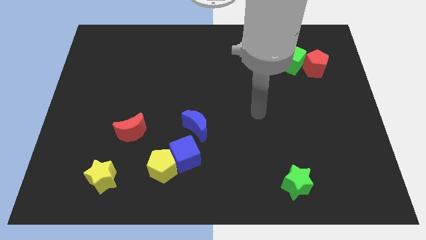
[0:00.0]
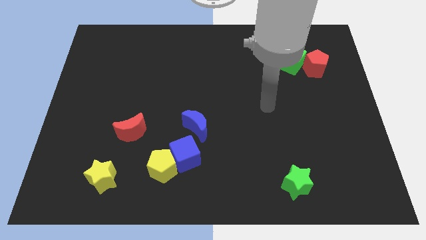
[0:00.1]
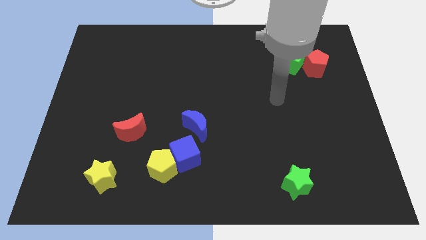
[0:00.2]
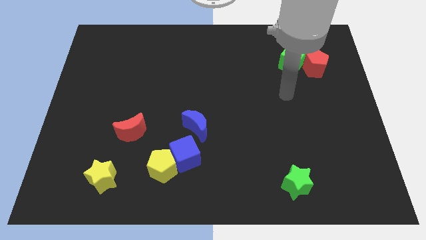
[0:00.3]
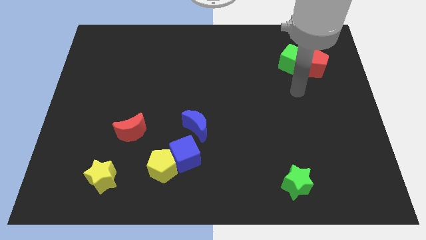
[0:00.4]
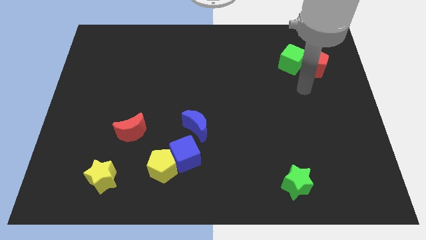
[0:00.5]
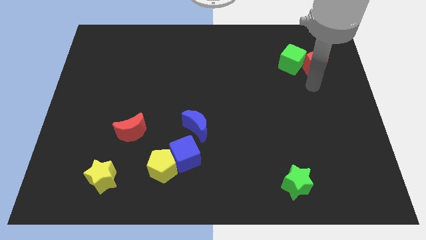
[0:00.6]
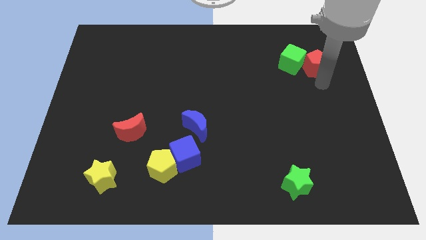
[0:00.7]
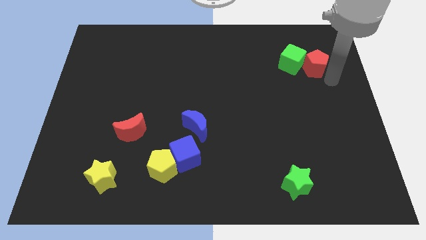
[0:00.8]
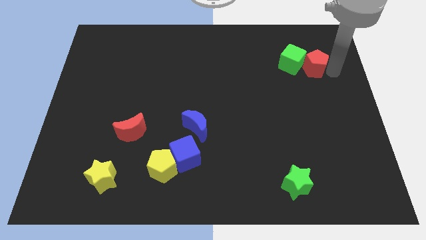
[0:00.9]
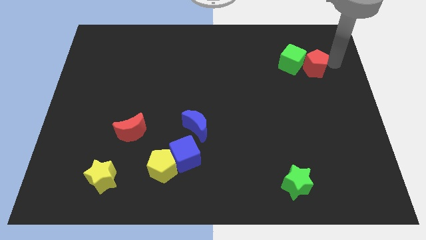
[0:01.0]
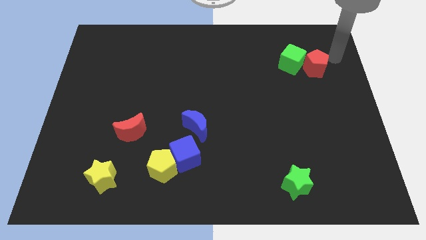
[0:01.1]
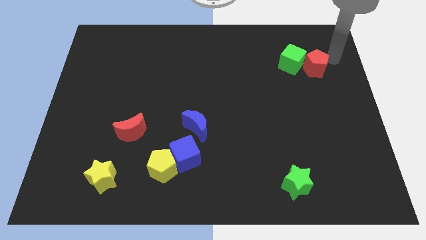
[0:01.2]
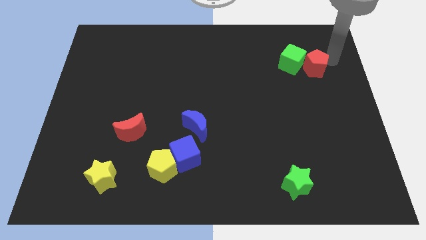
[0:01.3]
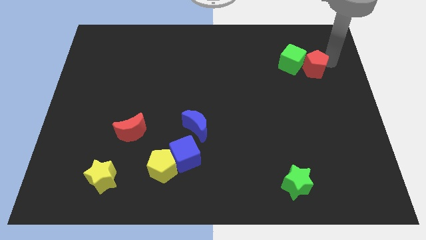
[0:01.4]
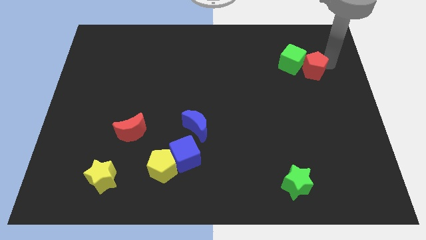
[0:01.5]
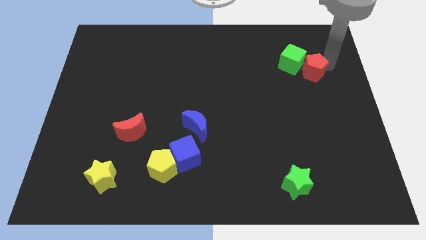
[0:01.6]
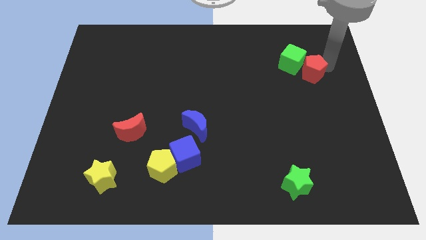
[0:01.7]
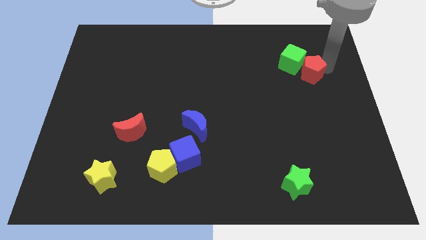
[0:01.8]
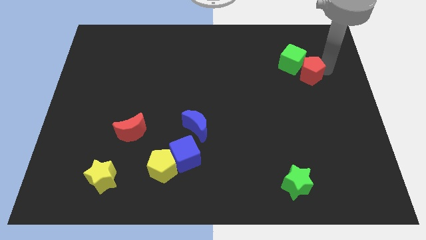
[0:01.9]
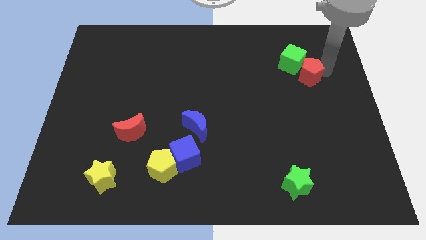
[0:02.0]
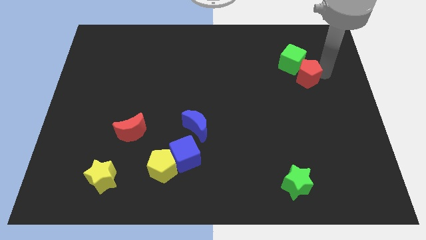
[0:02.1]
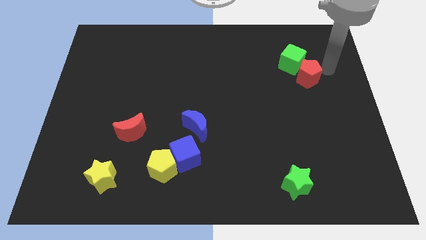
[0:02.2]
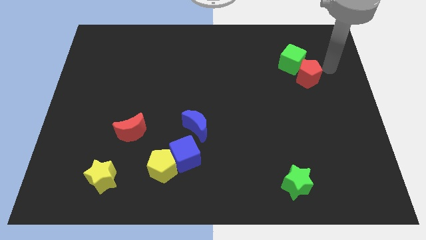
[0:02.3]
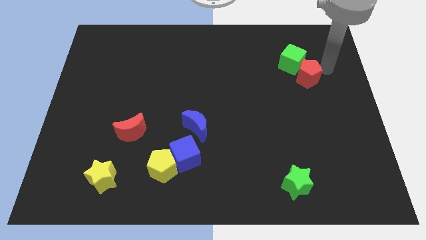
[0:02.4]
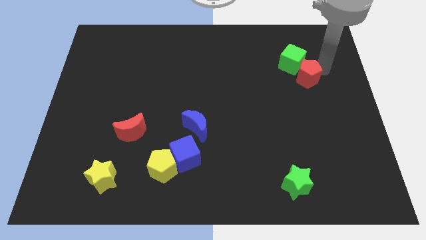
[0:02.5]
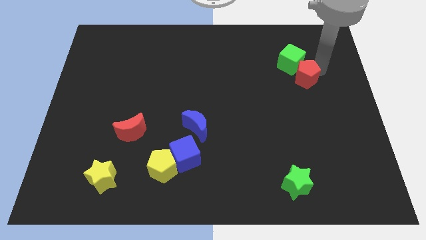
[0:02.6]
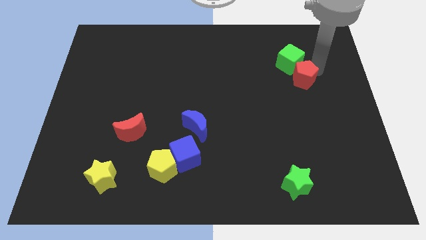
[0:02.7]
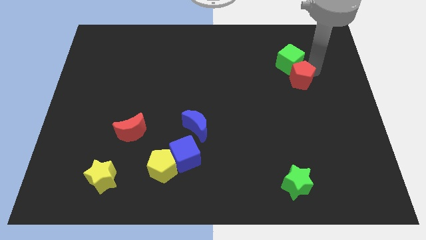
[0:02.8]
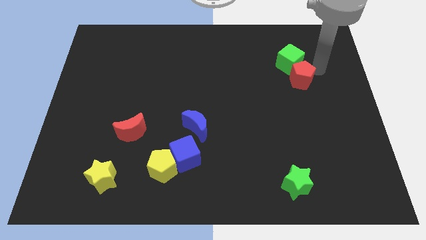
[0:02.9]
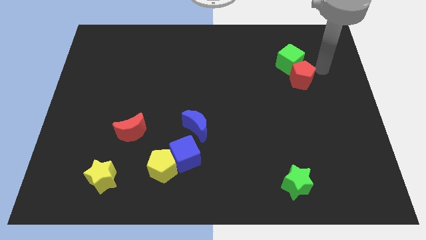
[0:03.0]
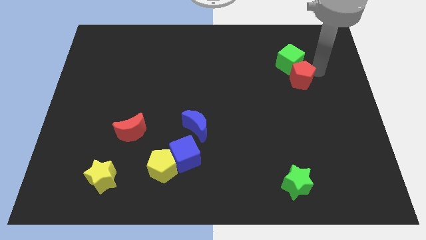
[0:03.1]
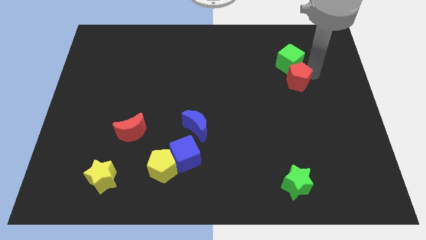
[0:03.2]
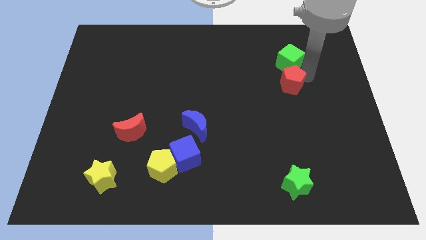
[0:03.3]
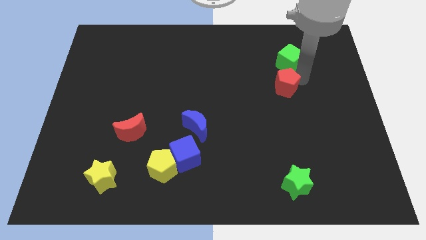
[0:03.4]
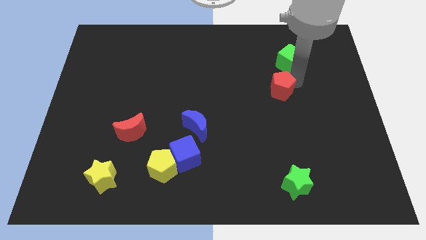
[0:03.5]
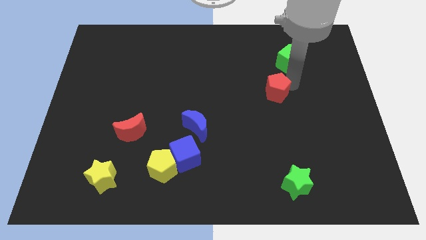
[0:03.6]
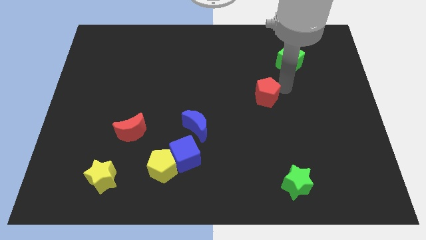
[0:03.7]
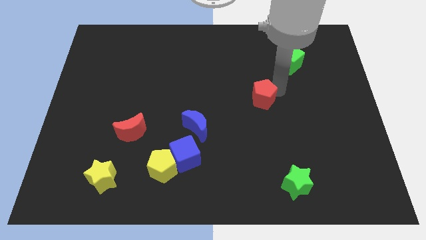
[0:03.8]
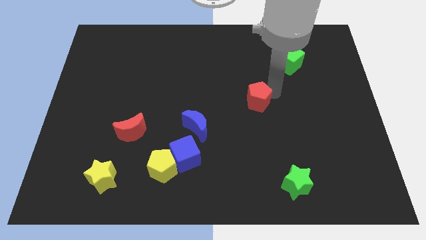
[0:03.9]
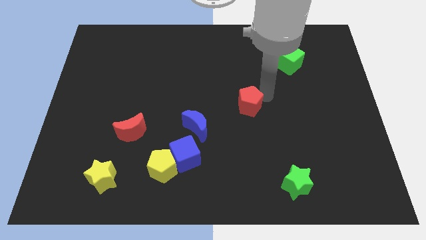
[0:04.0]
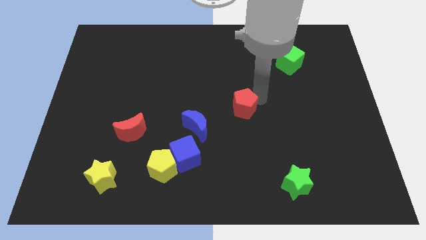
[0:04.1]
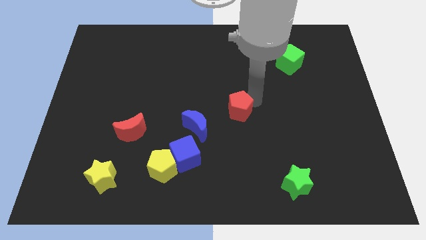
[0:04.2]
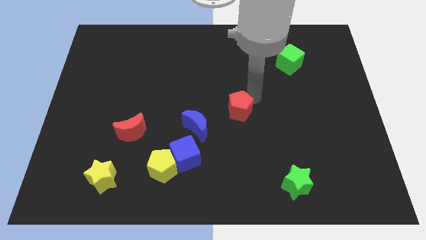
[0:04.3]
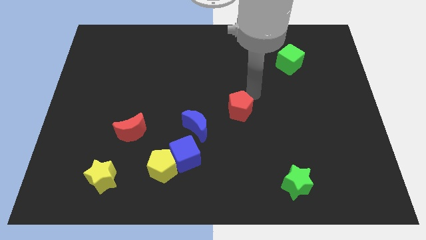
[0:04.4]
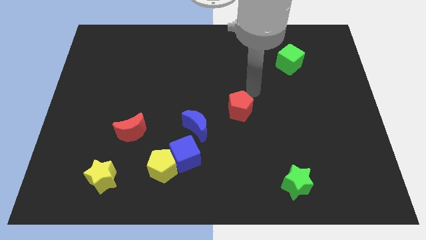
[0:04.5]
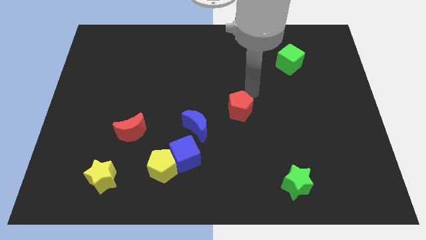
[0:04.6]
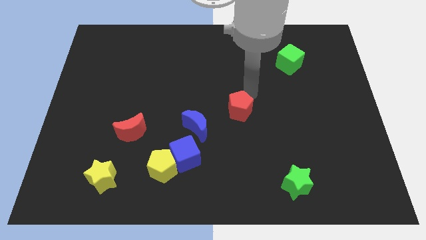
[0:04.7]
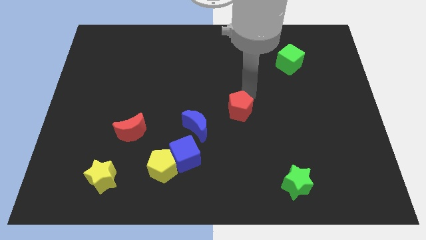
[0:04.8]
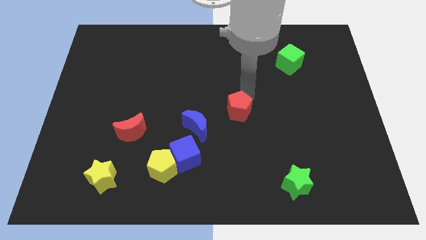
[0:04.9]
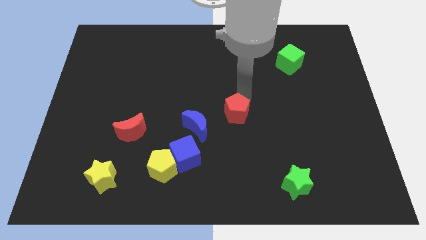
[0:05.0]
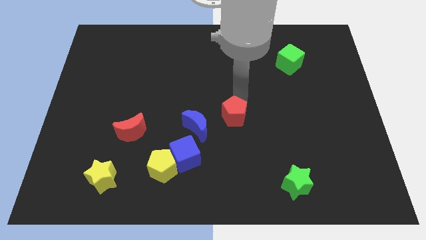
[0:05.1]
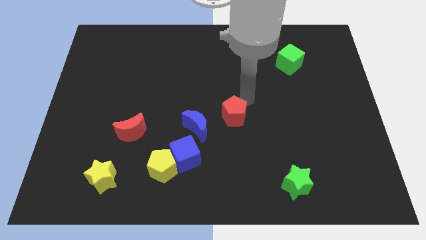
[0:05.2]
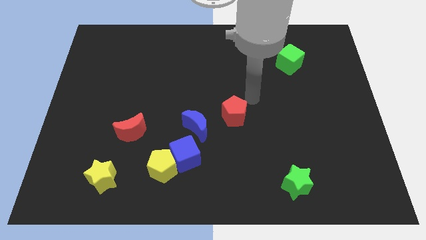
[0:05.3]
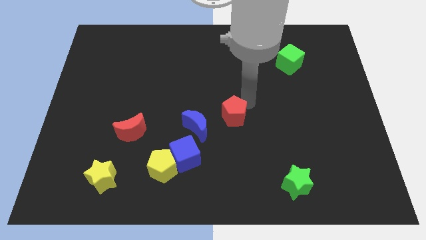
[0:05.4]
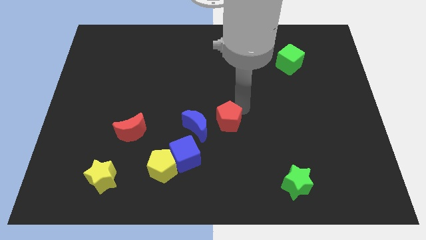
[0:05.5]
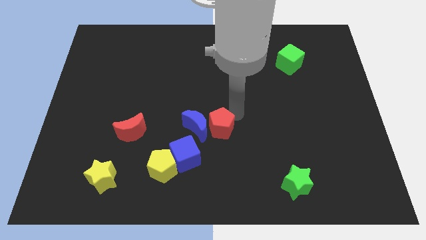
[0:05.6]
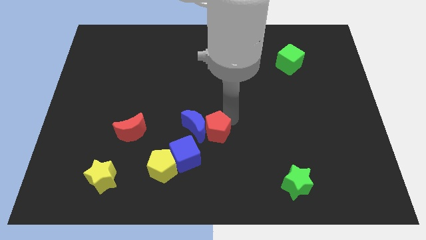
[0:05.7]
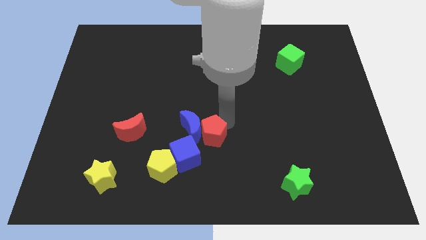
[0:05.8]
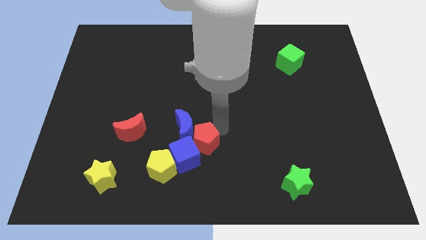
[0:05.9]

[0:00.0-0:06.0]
slide the red pentagon to the blue cube

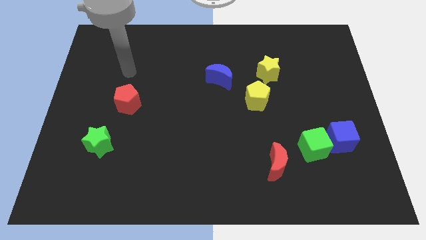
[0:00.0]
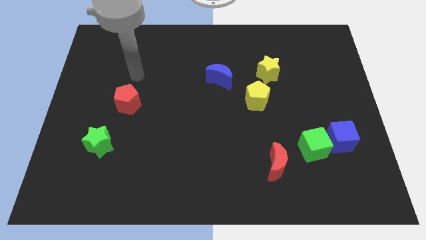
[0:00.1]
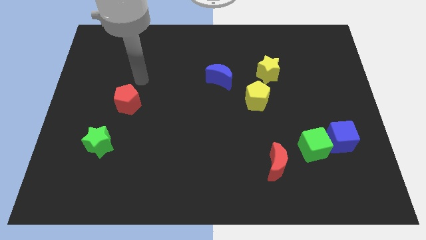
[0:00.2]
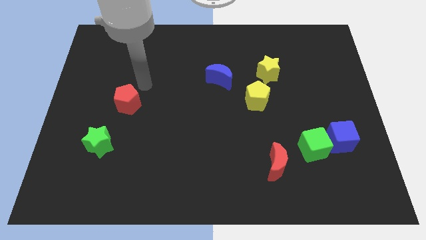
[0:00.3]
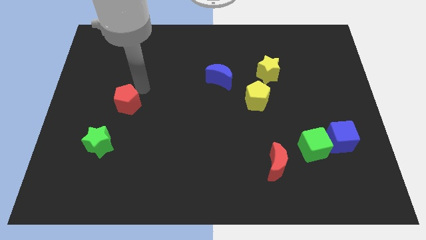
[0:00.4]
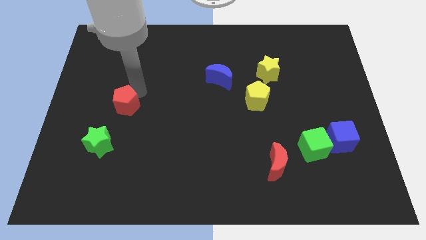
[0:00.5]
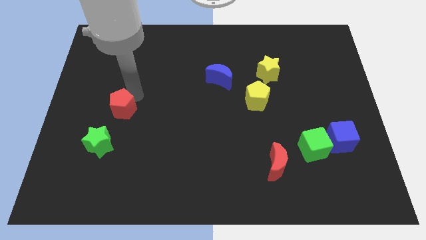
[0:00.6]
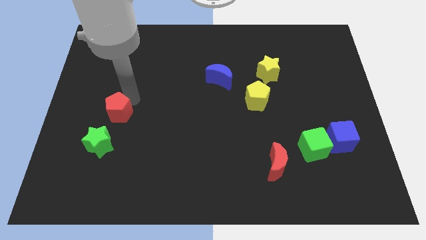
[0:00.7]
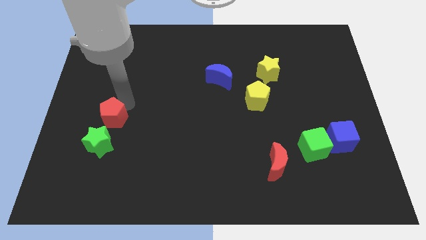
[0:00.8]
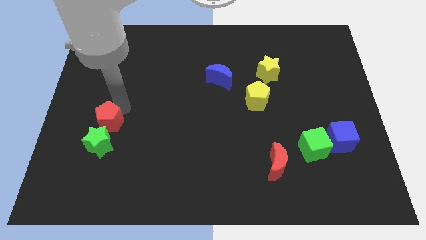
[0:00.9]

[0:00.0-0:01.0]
put the red pentagon next to the green star

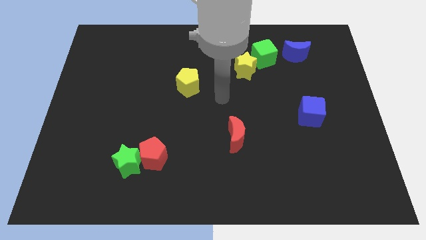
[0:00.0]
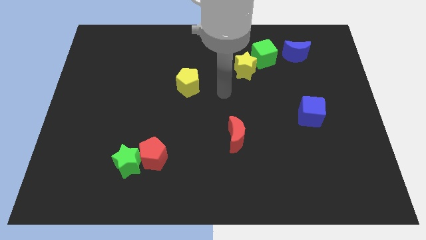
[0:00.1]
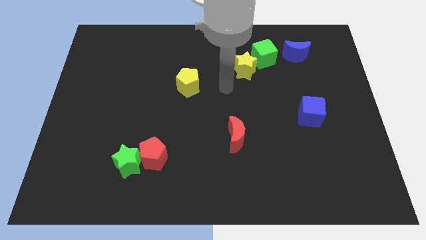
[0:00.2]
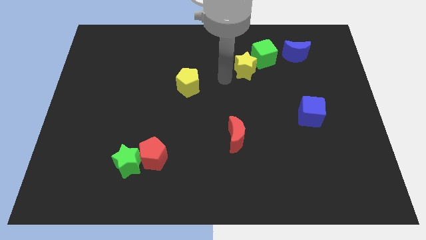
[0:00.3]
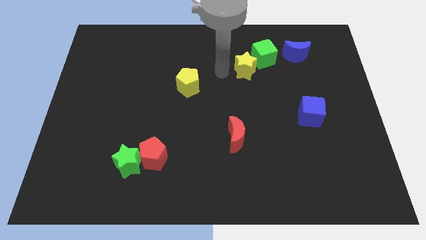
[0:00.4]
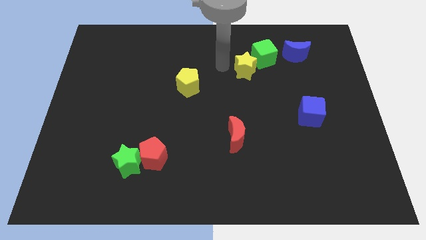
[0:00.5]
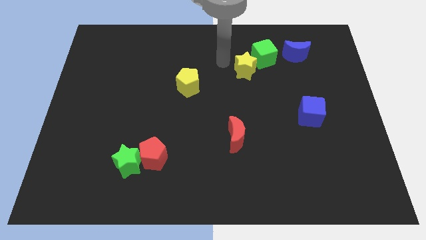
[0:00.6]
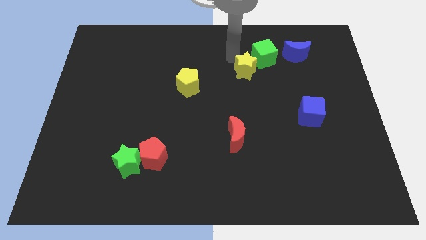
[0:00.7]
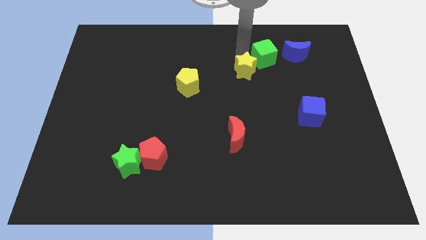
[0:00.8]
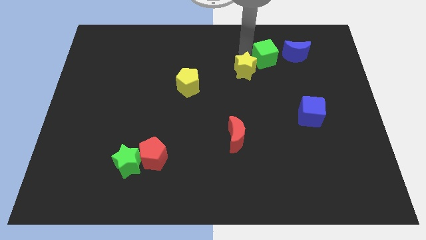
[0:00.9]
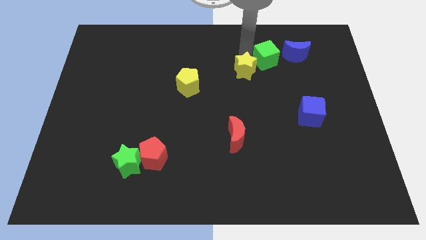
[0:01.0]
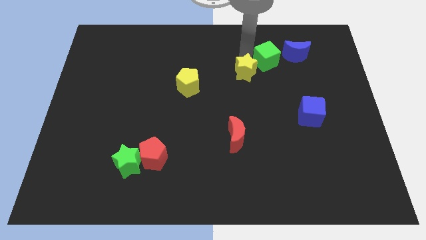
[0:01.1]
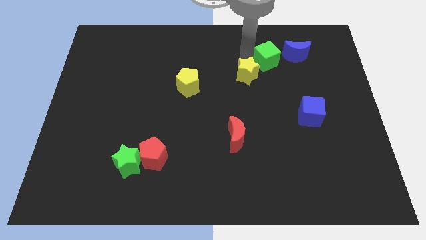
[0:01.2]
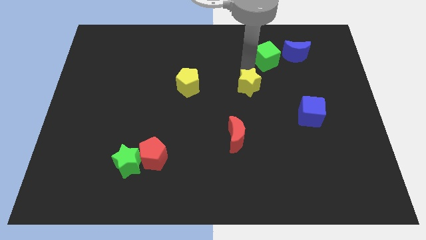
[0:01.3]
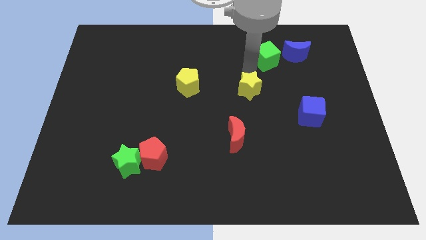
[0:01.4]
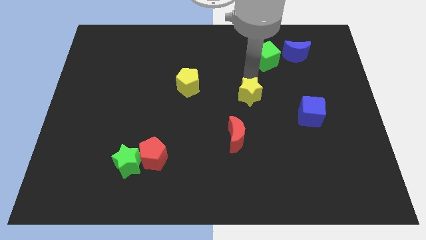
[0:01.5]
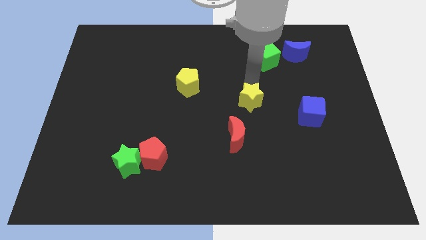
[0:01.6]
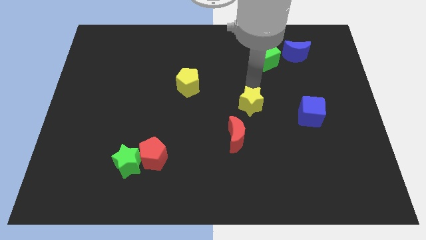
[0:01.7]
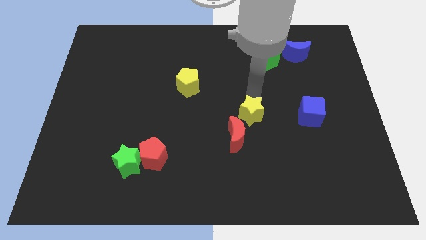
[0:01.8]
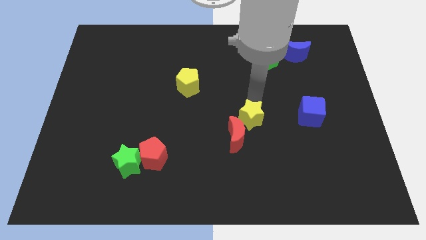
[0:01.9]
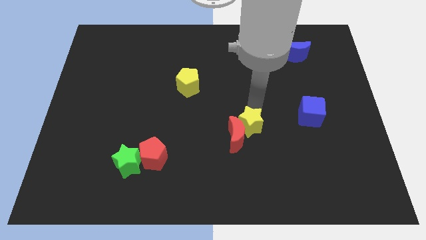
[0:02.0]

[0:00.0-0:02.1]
slide the yellow star next to the red moon
